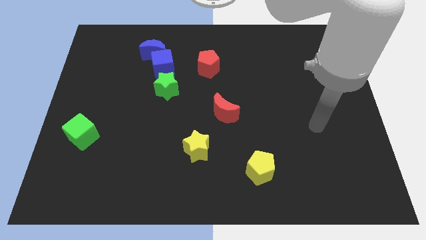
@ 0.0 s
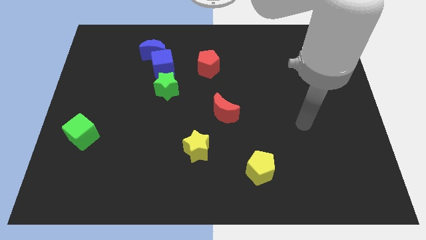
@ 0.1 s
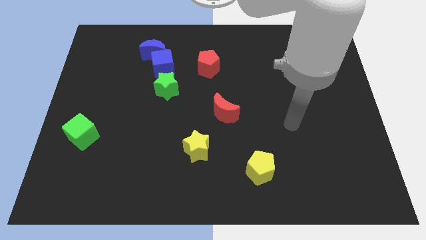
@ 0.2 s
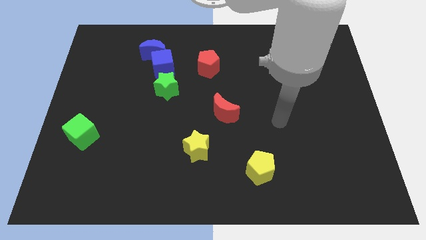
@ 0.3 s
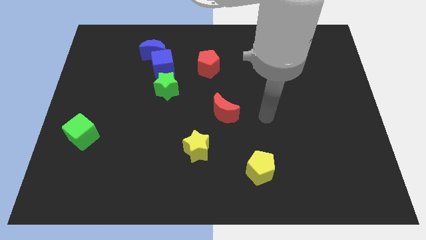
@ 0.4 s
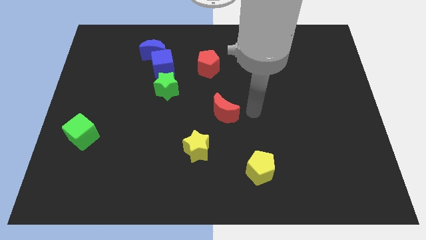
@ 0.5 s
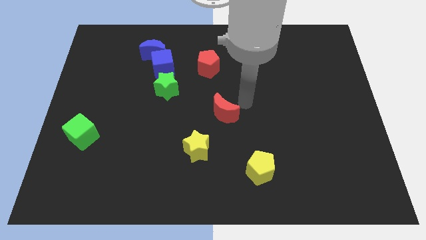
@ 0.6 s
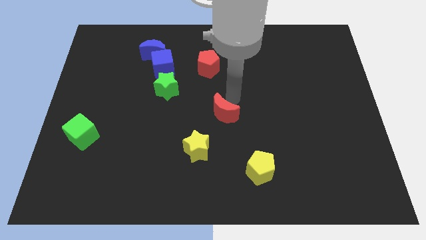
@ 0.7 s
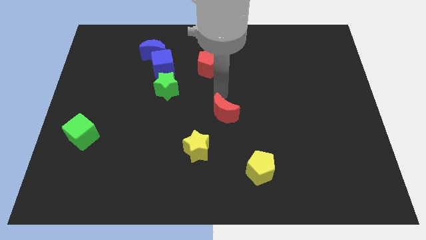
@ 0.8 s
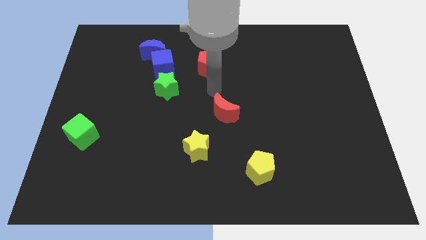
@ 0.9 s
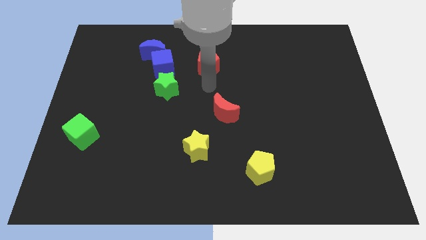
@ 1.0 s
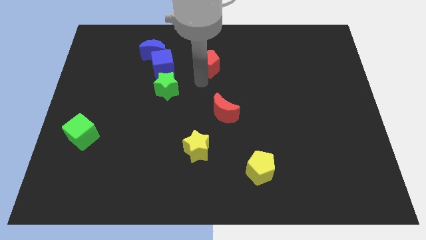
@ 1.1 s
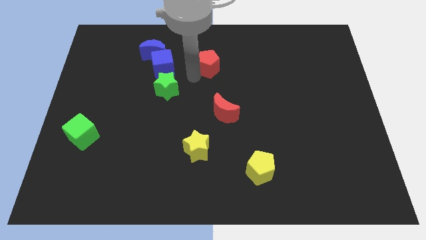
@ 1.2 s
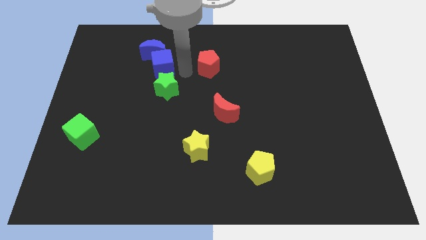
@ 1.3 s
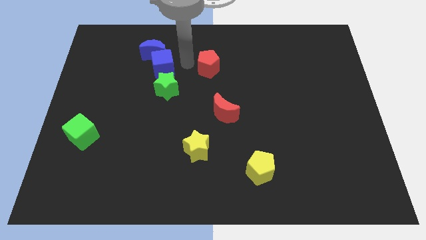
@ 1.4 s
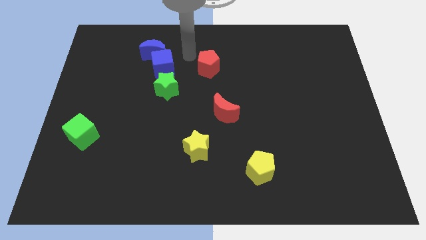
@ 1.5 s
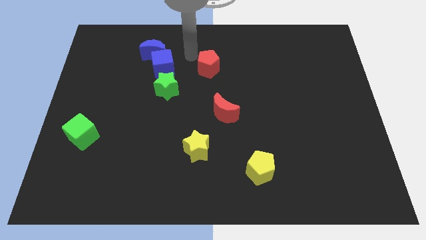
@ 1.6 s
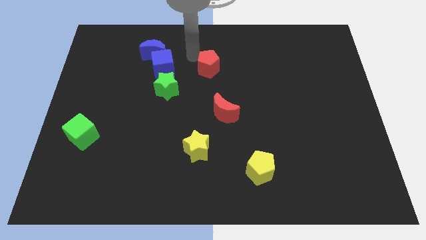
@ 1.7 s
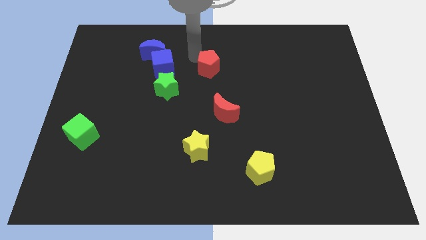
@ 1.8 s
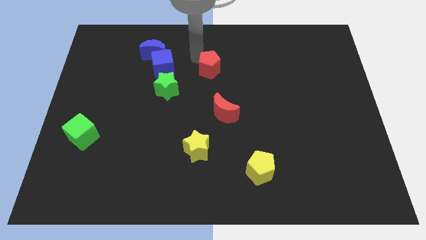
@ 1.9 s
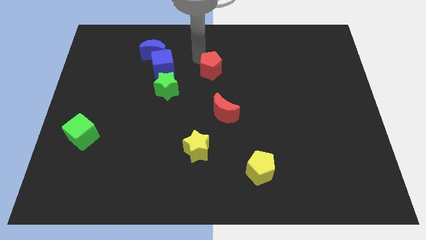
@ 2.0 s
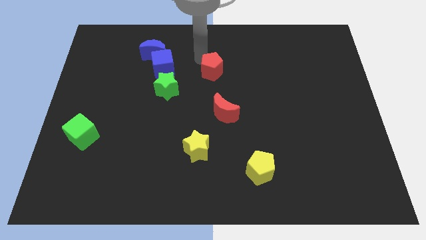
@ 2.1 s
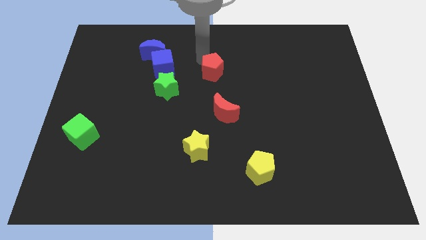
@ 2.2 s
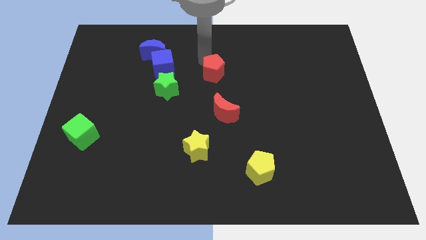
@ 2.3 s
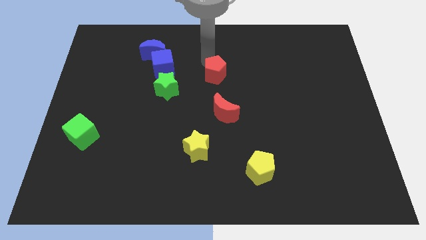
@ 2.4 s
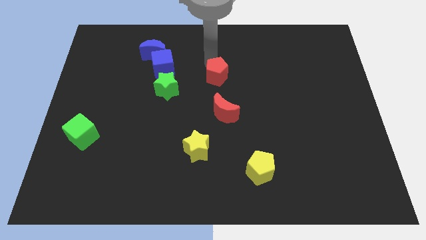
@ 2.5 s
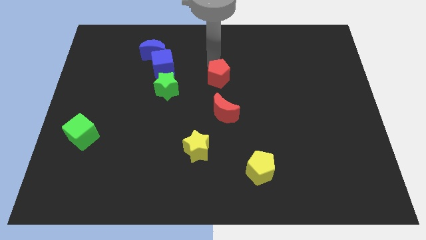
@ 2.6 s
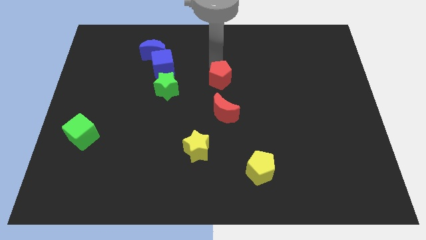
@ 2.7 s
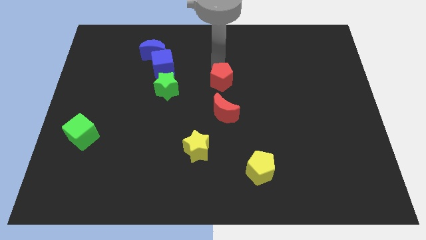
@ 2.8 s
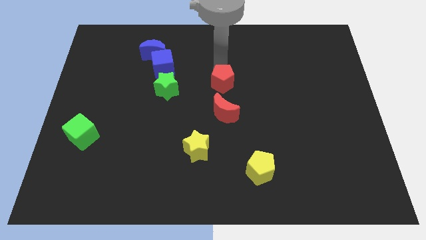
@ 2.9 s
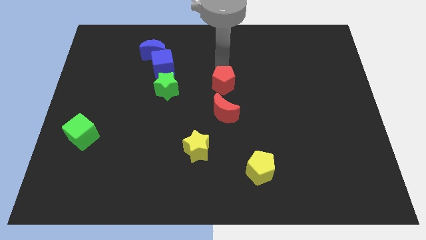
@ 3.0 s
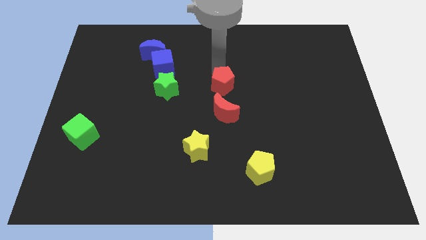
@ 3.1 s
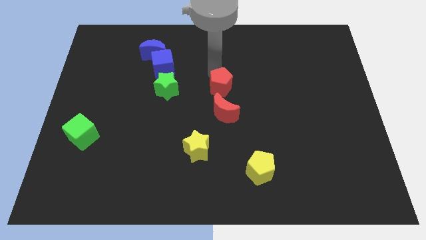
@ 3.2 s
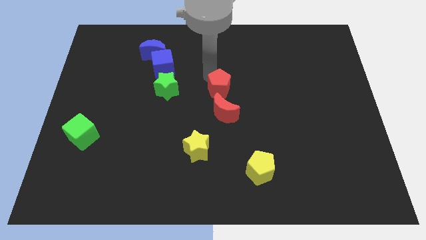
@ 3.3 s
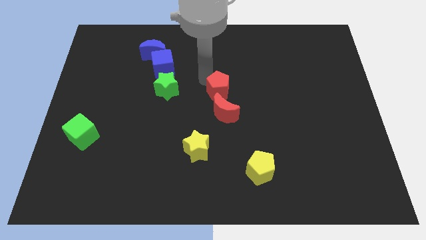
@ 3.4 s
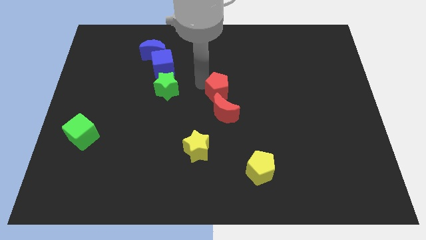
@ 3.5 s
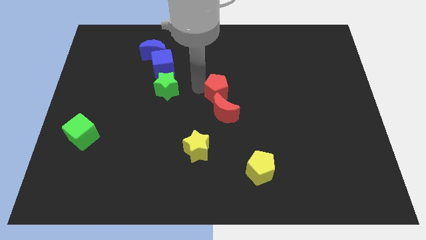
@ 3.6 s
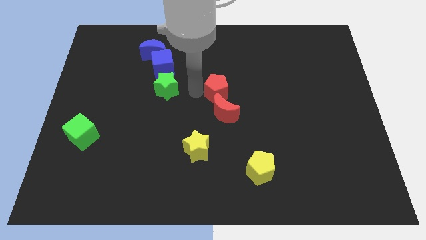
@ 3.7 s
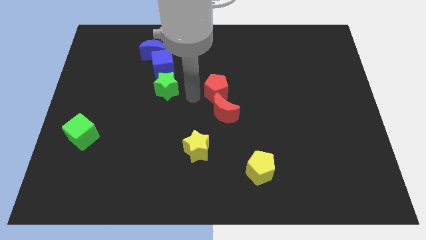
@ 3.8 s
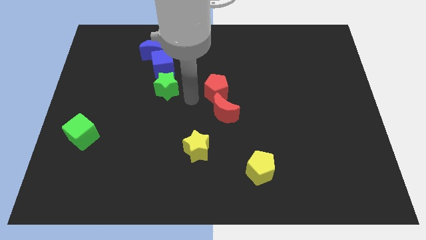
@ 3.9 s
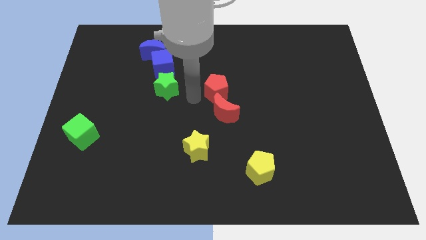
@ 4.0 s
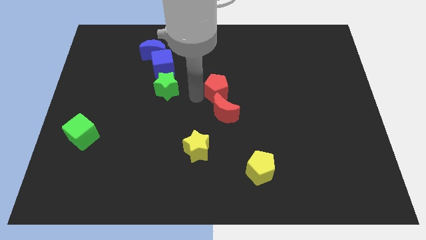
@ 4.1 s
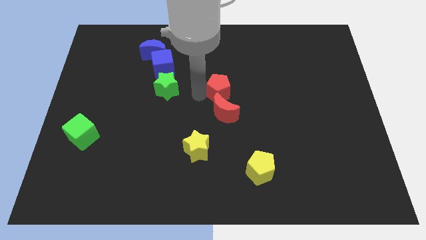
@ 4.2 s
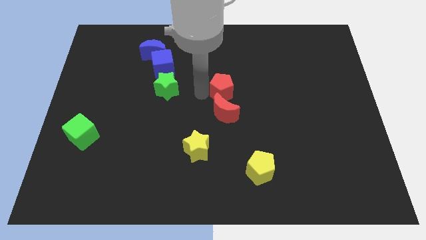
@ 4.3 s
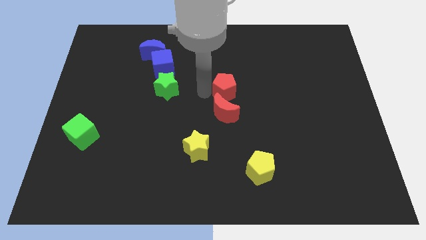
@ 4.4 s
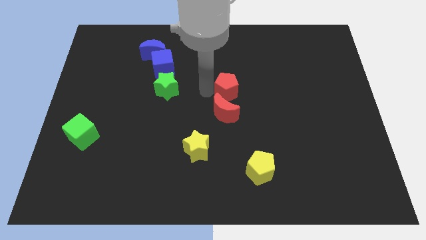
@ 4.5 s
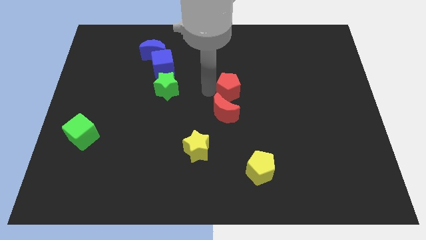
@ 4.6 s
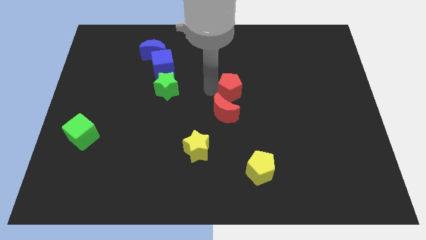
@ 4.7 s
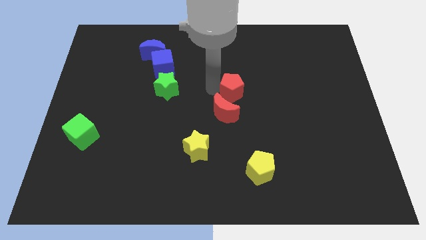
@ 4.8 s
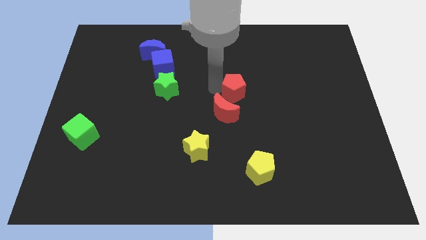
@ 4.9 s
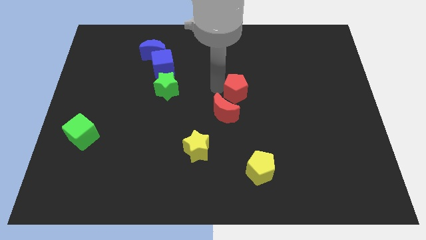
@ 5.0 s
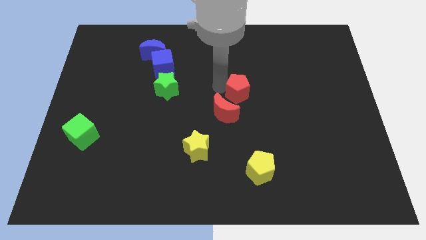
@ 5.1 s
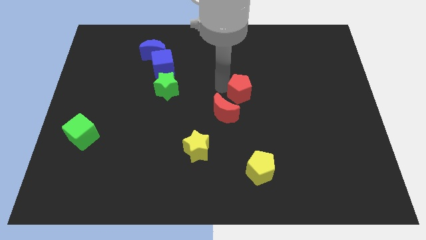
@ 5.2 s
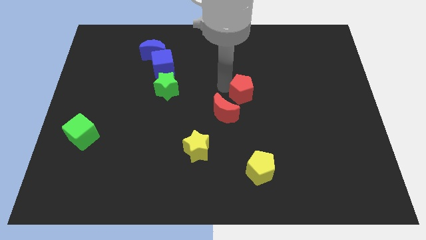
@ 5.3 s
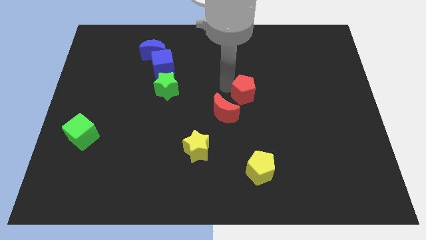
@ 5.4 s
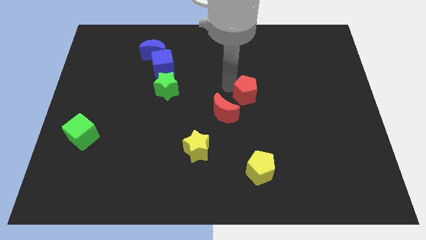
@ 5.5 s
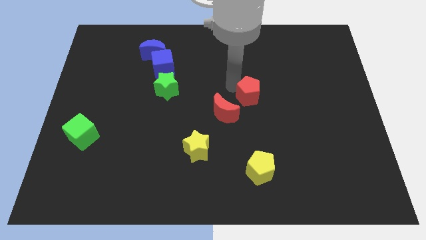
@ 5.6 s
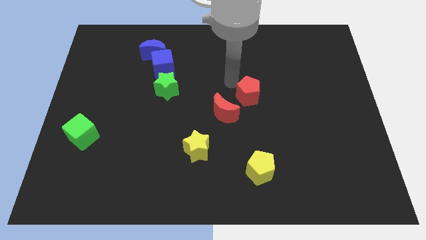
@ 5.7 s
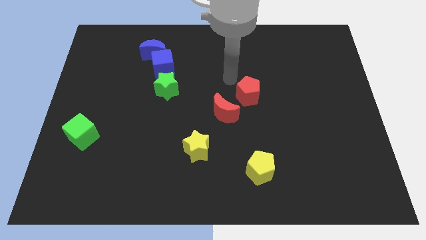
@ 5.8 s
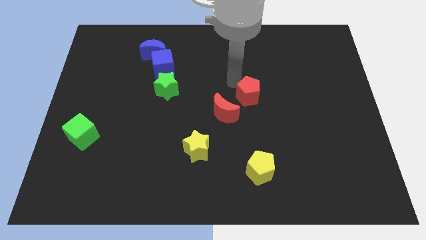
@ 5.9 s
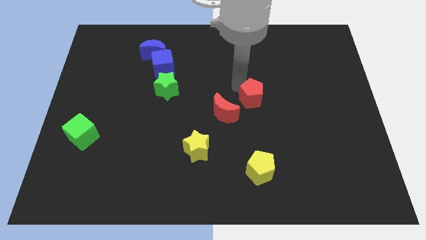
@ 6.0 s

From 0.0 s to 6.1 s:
put the red pentagon to the right side of the red moon

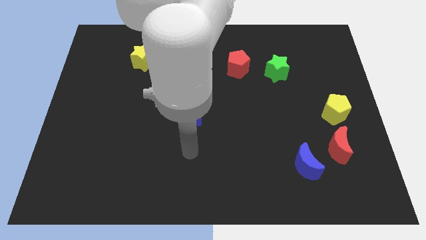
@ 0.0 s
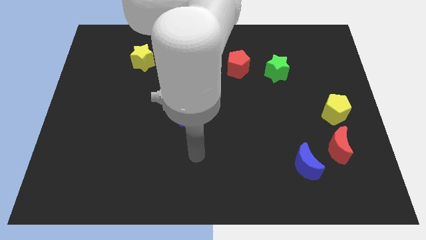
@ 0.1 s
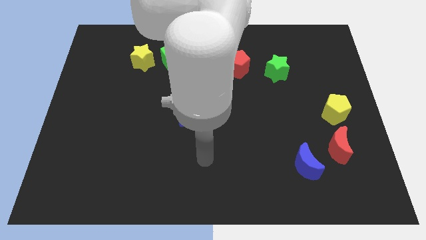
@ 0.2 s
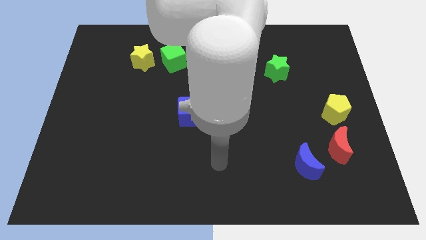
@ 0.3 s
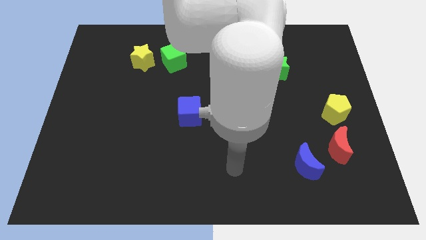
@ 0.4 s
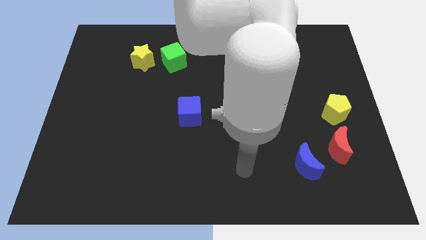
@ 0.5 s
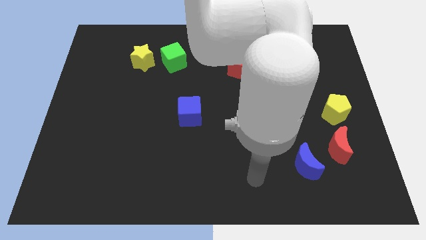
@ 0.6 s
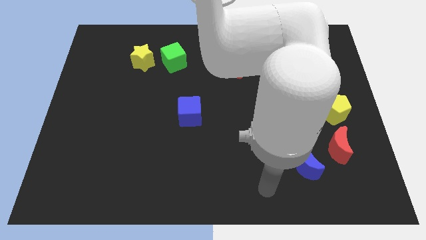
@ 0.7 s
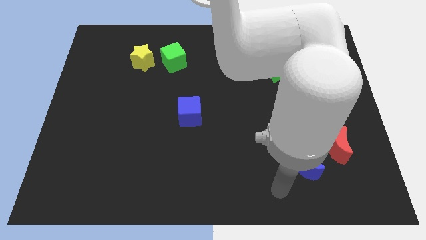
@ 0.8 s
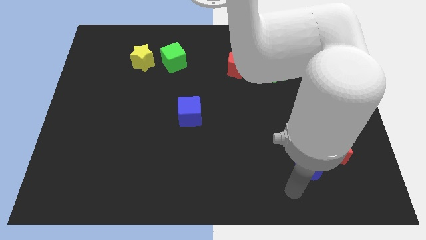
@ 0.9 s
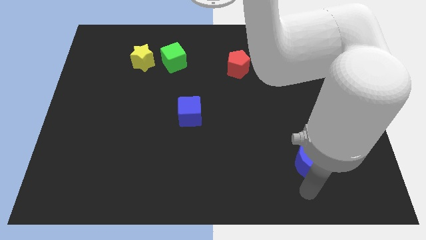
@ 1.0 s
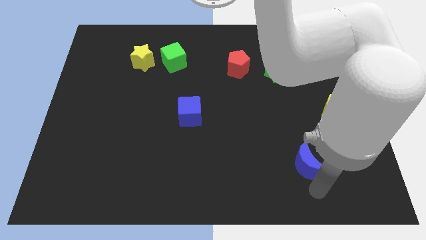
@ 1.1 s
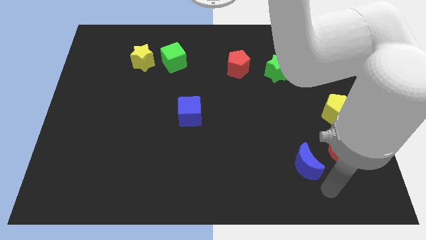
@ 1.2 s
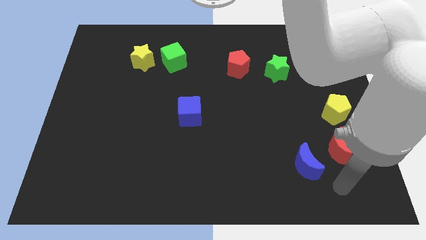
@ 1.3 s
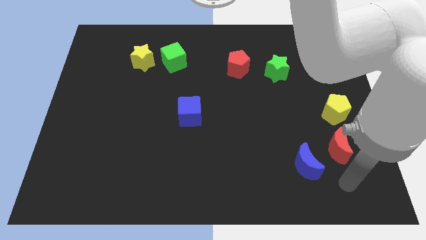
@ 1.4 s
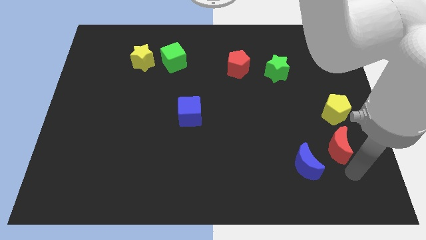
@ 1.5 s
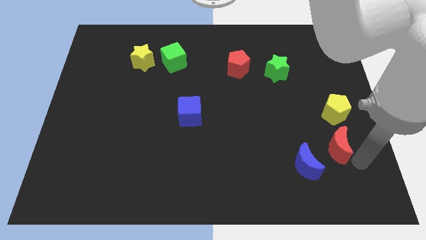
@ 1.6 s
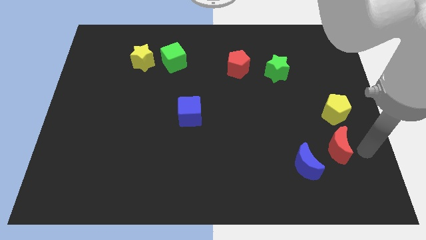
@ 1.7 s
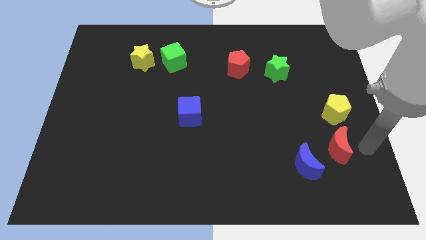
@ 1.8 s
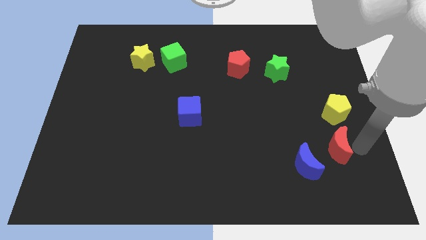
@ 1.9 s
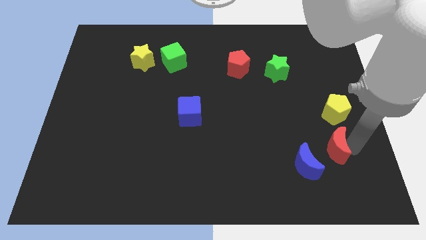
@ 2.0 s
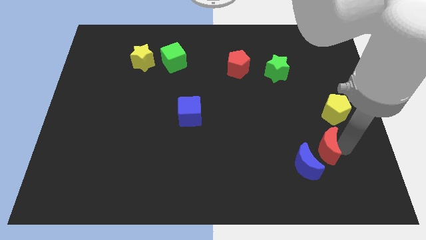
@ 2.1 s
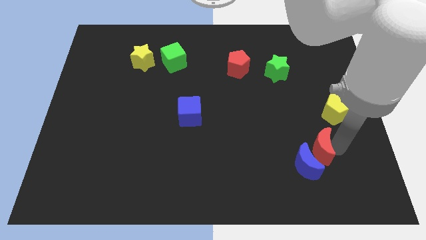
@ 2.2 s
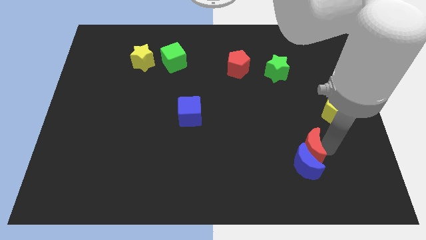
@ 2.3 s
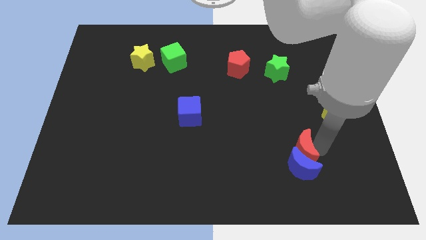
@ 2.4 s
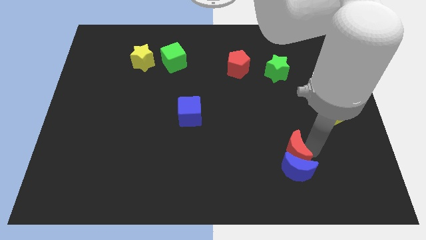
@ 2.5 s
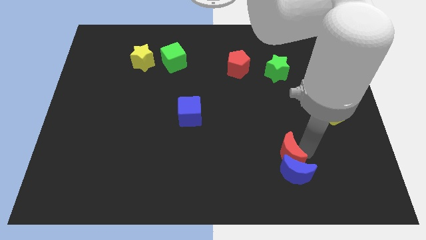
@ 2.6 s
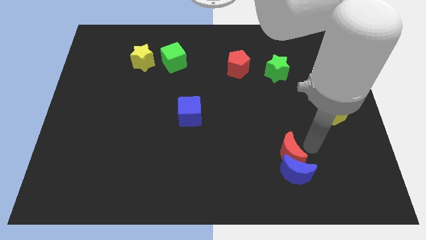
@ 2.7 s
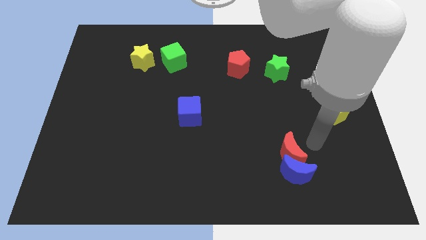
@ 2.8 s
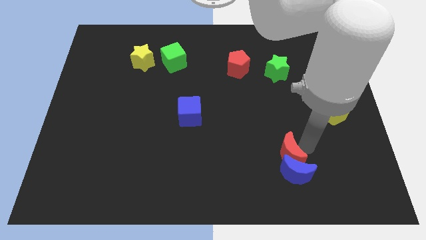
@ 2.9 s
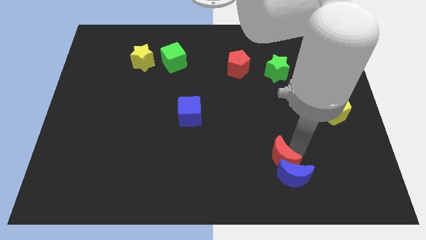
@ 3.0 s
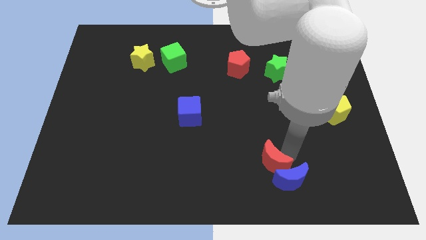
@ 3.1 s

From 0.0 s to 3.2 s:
slide the red moon to the left of the blue moon
